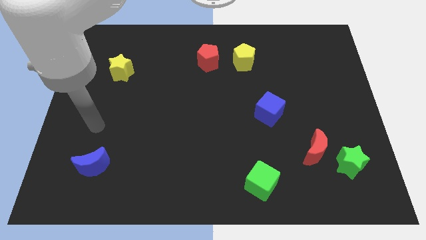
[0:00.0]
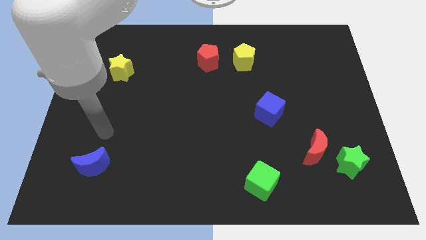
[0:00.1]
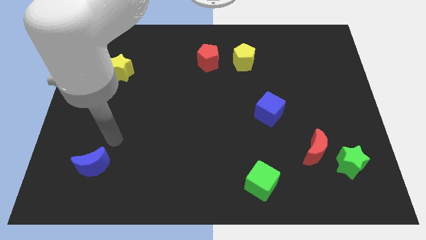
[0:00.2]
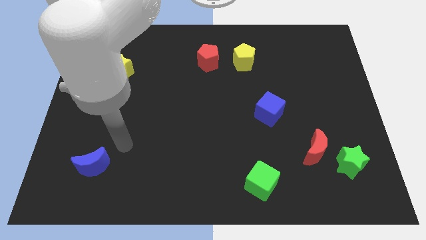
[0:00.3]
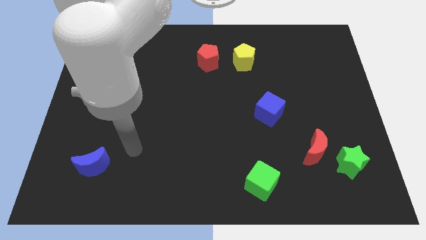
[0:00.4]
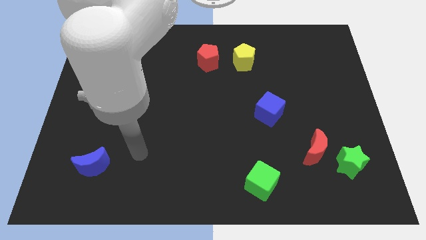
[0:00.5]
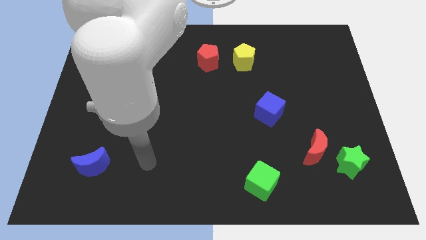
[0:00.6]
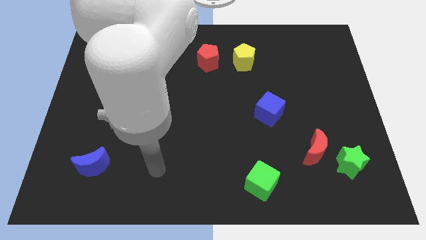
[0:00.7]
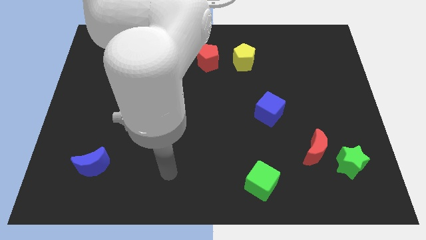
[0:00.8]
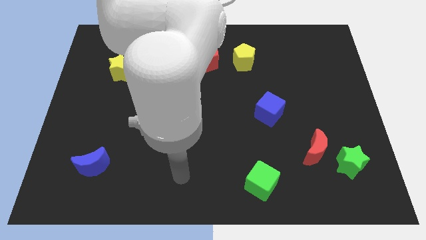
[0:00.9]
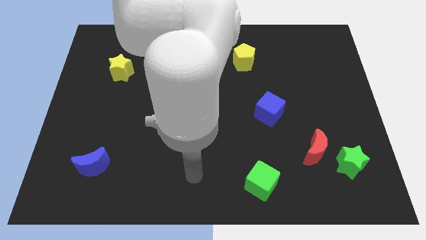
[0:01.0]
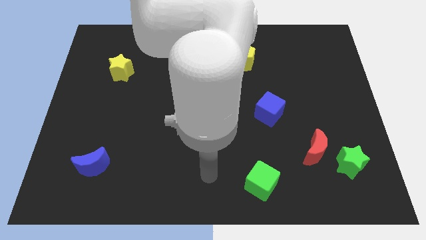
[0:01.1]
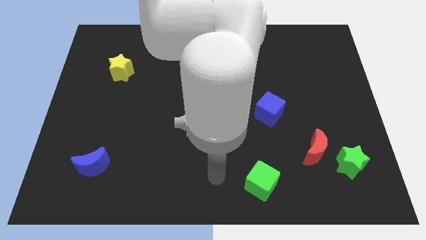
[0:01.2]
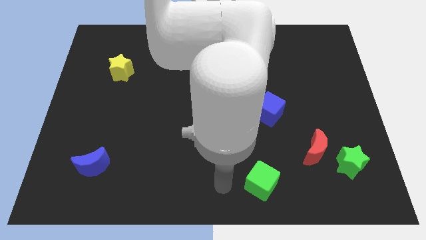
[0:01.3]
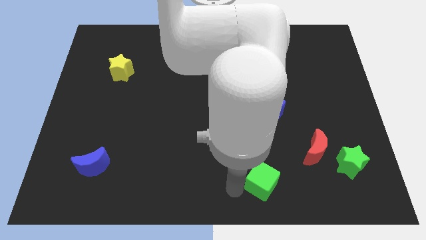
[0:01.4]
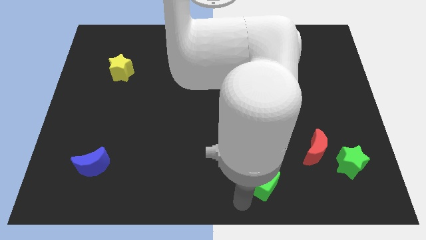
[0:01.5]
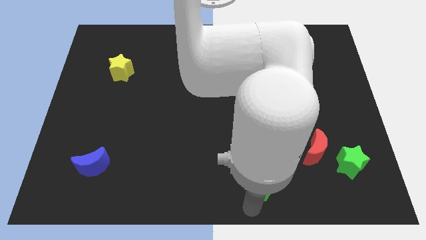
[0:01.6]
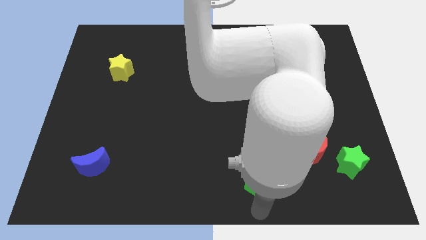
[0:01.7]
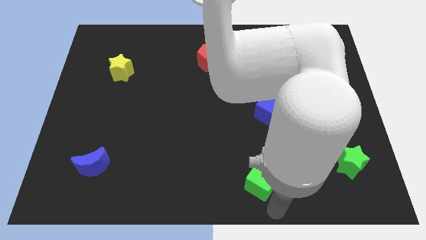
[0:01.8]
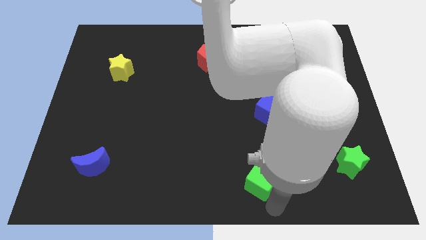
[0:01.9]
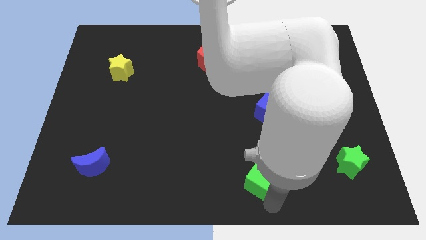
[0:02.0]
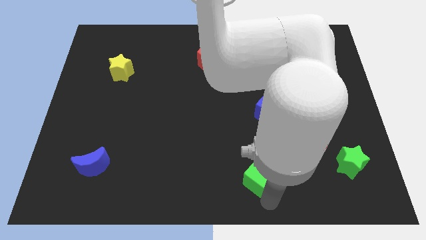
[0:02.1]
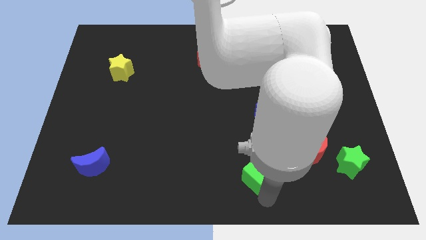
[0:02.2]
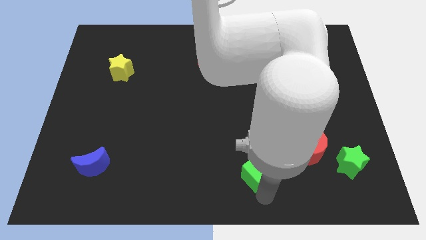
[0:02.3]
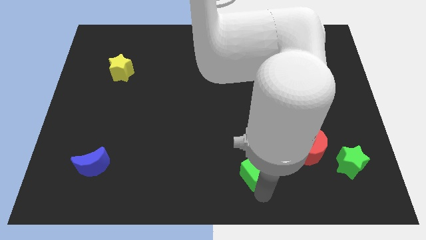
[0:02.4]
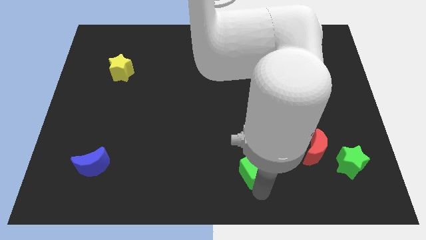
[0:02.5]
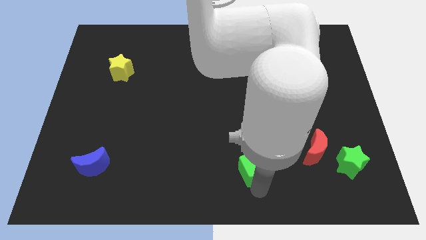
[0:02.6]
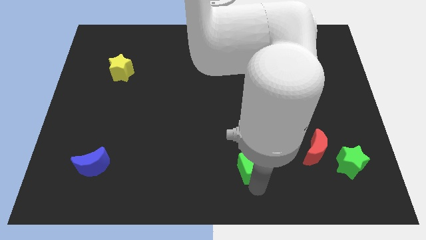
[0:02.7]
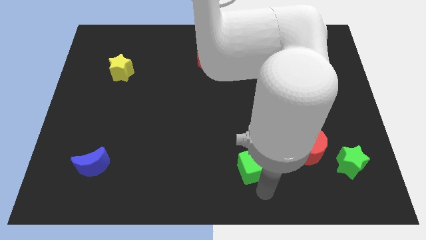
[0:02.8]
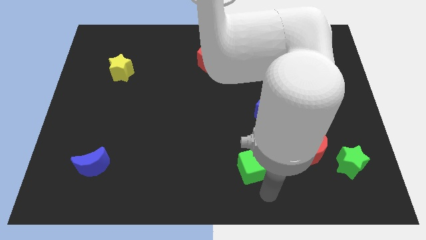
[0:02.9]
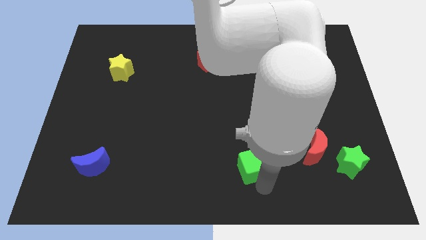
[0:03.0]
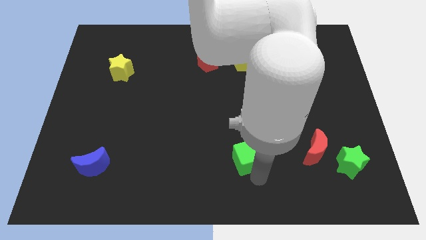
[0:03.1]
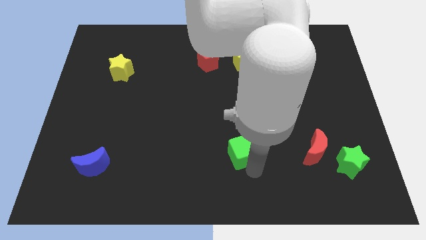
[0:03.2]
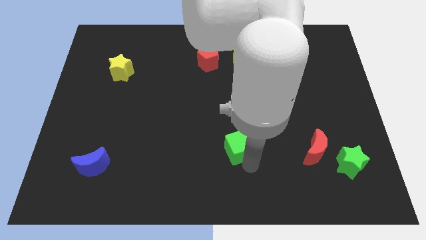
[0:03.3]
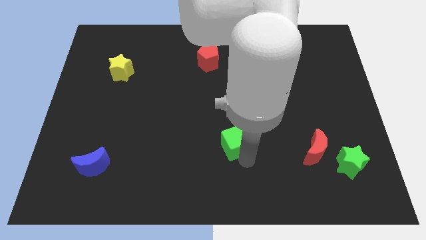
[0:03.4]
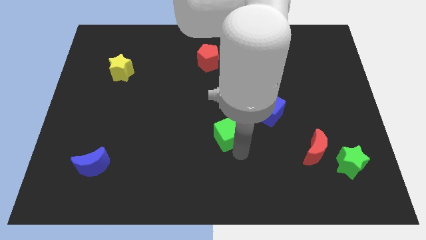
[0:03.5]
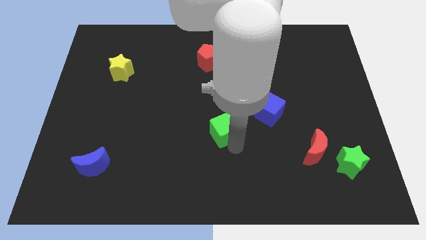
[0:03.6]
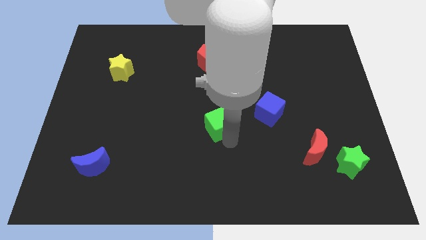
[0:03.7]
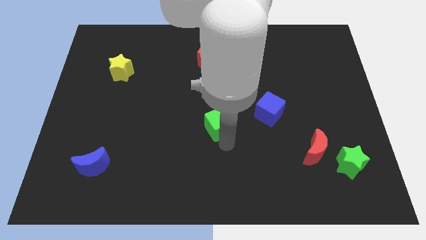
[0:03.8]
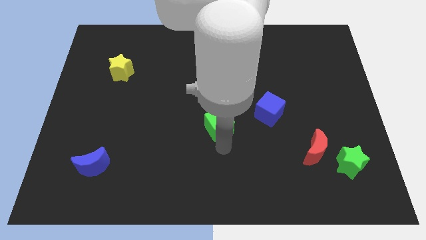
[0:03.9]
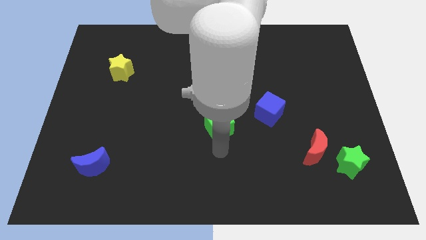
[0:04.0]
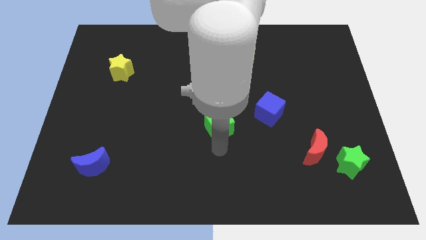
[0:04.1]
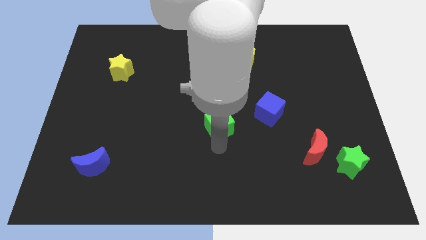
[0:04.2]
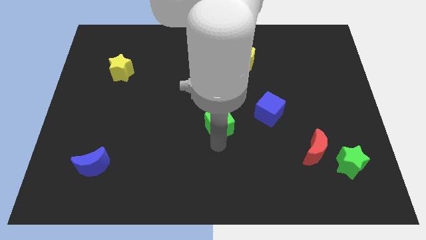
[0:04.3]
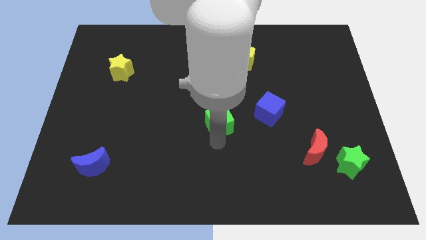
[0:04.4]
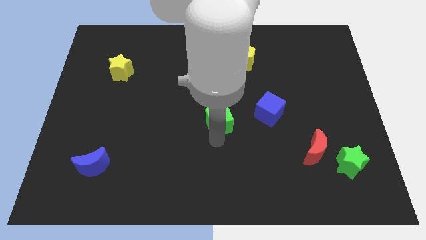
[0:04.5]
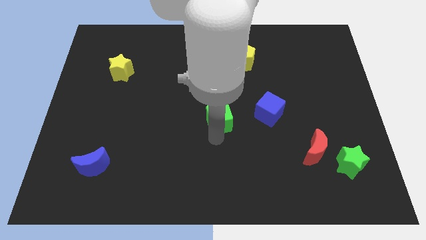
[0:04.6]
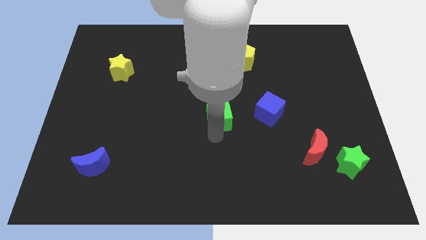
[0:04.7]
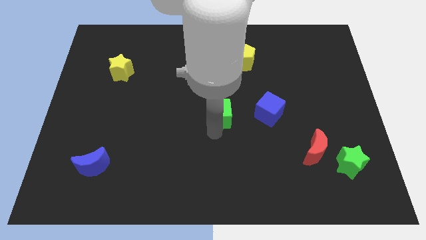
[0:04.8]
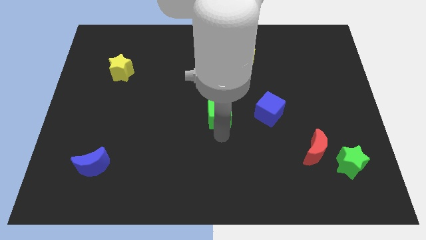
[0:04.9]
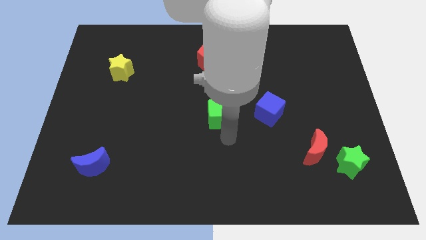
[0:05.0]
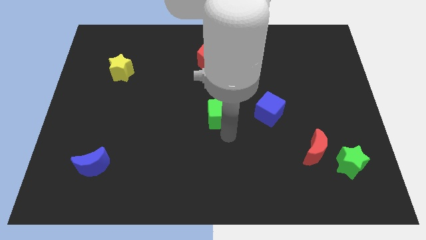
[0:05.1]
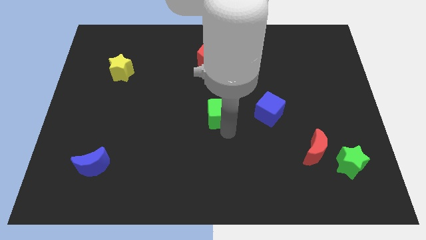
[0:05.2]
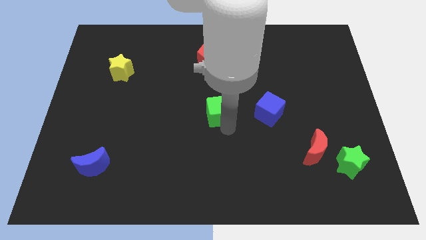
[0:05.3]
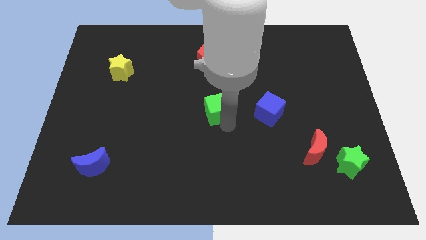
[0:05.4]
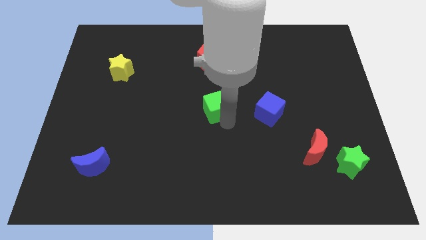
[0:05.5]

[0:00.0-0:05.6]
push the green cube below the red pentagon

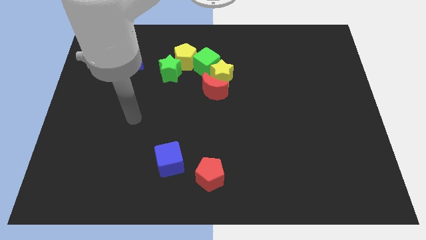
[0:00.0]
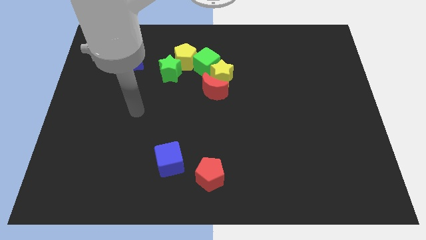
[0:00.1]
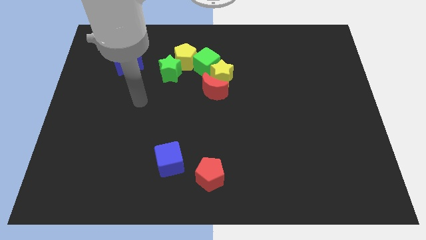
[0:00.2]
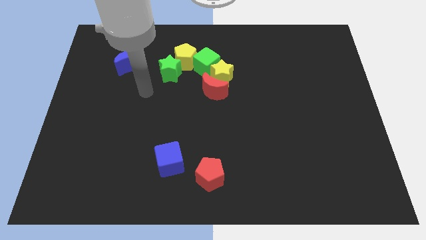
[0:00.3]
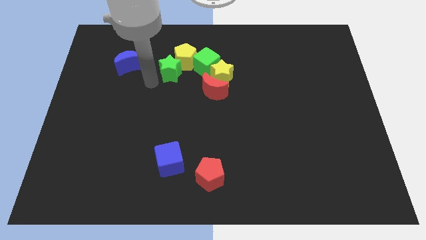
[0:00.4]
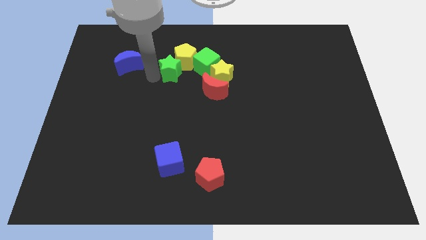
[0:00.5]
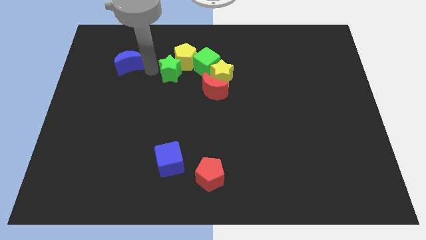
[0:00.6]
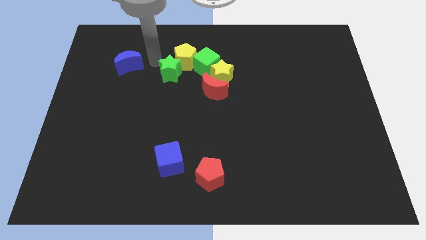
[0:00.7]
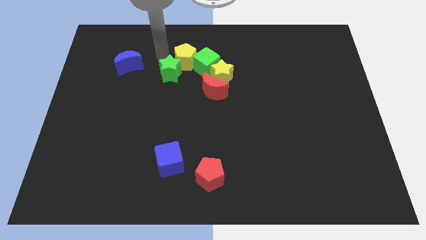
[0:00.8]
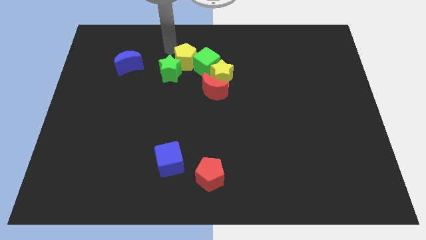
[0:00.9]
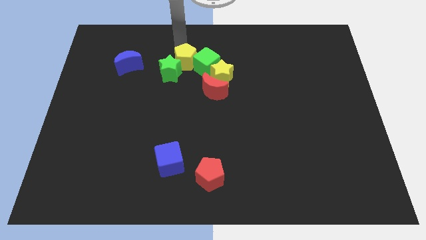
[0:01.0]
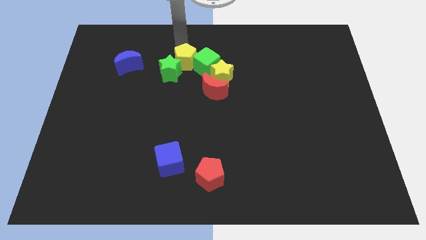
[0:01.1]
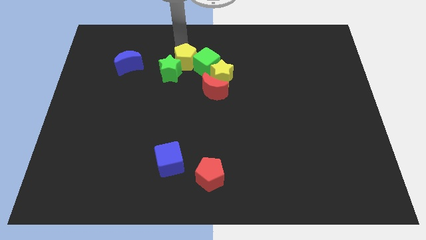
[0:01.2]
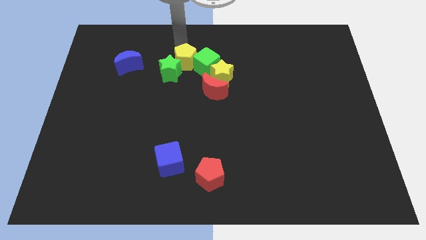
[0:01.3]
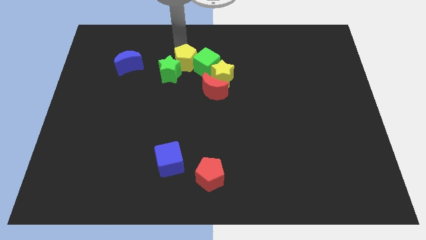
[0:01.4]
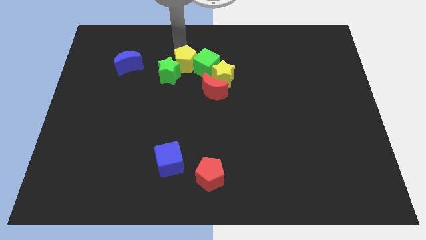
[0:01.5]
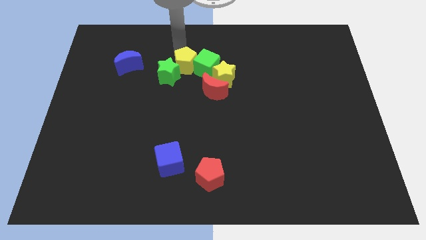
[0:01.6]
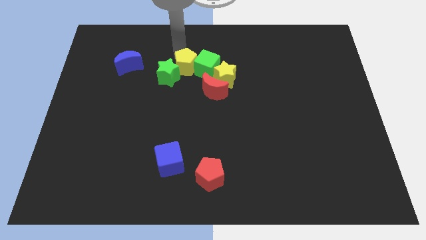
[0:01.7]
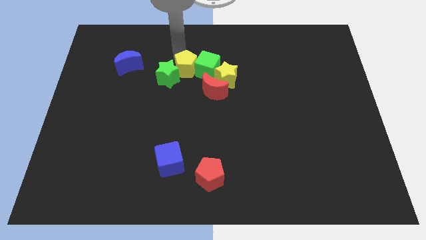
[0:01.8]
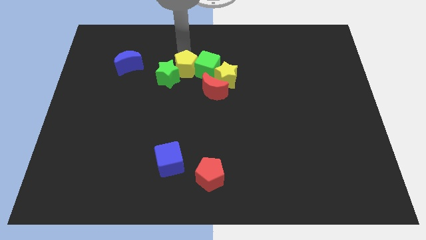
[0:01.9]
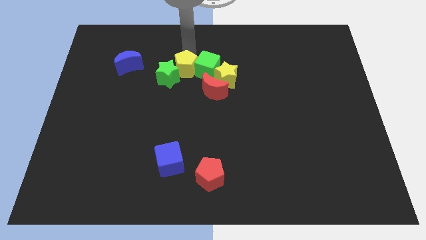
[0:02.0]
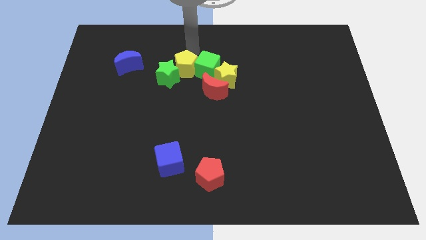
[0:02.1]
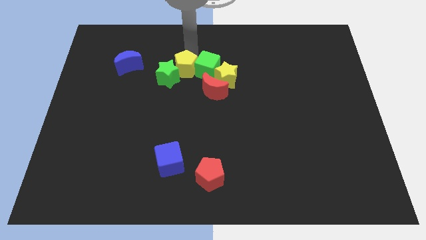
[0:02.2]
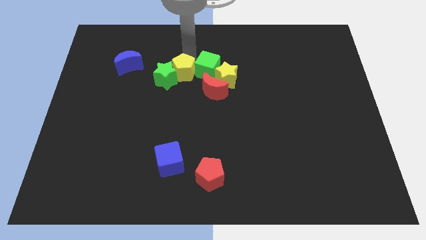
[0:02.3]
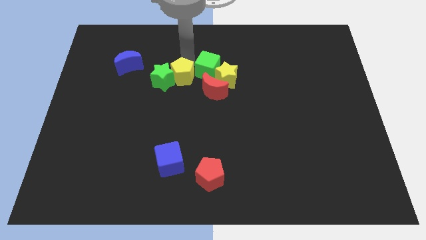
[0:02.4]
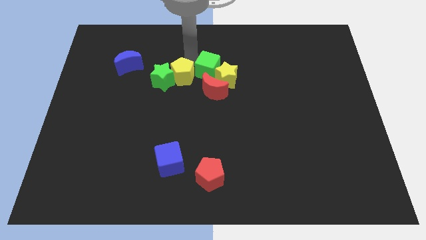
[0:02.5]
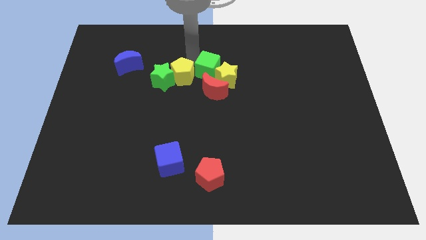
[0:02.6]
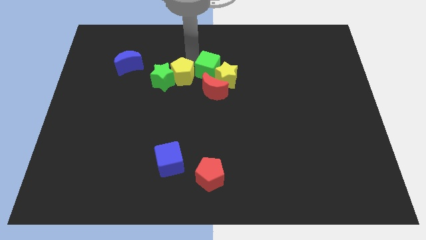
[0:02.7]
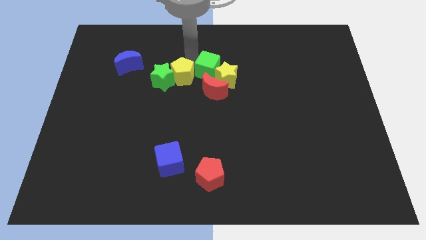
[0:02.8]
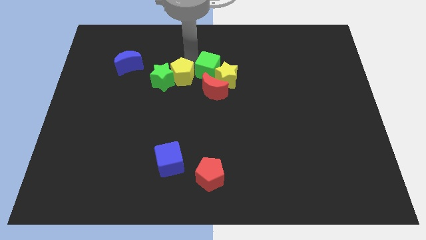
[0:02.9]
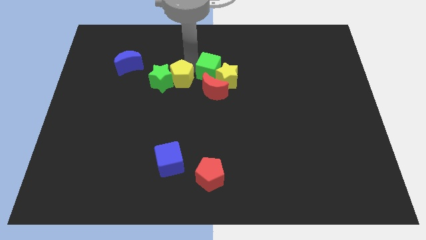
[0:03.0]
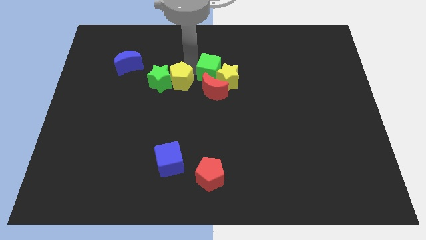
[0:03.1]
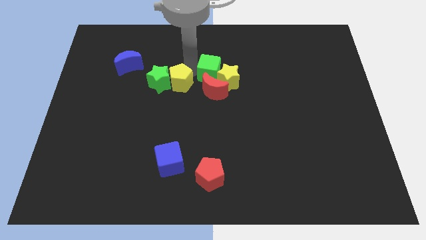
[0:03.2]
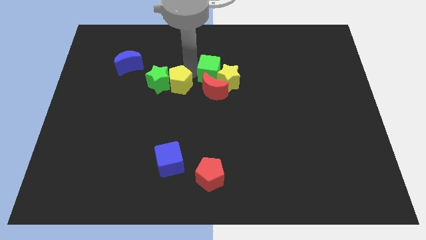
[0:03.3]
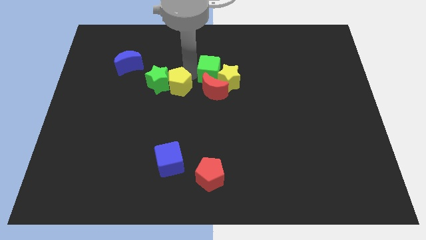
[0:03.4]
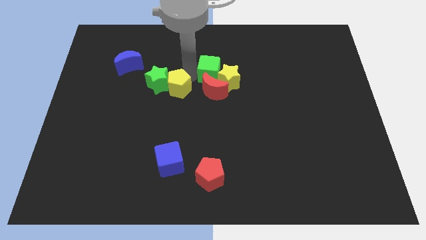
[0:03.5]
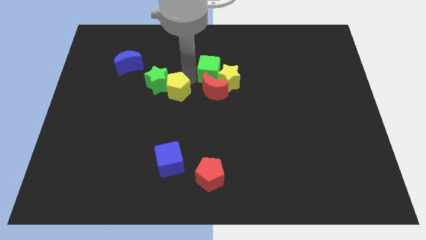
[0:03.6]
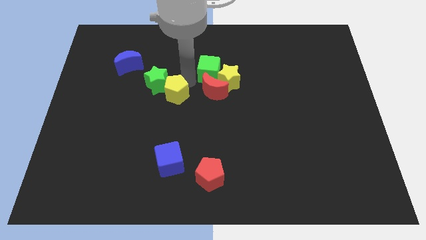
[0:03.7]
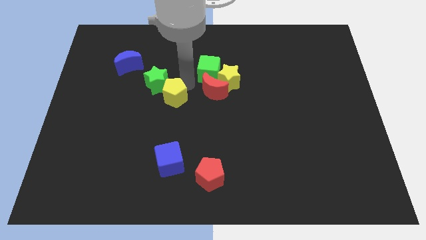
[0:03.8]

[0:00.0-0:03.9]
push the yellow pentagon to the bottom side of the green star
